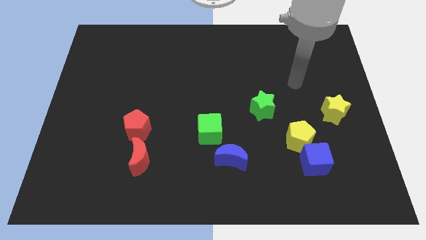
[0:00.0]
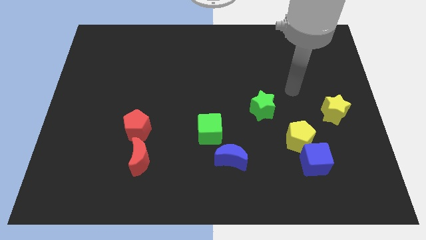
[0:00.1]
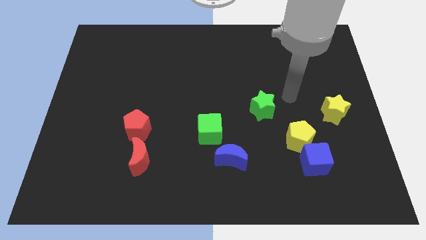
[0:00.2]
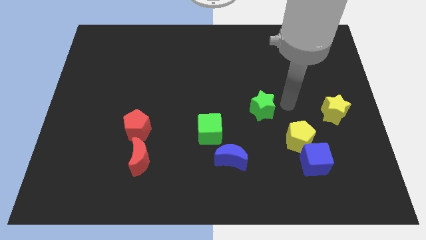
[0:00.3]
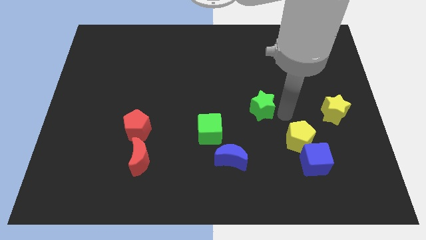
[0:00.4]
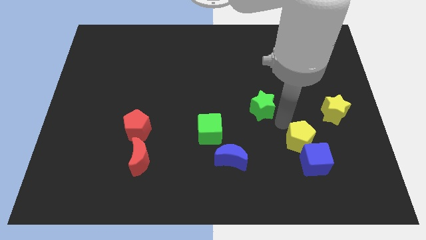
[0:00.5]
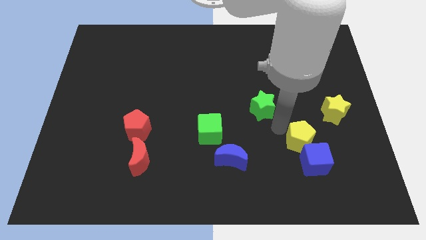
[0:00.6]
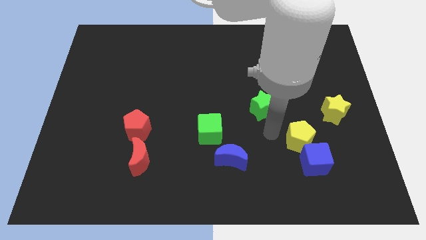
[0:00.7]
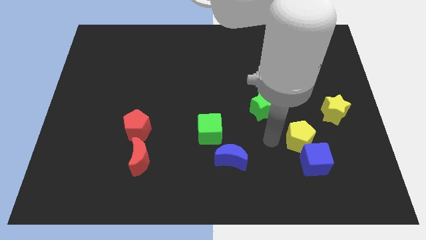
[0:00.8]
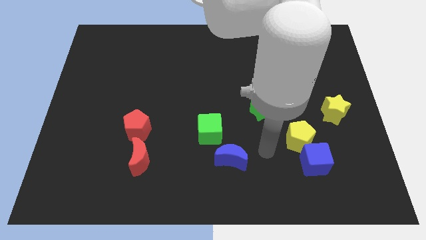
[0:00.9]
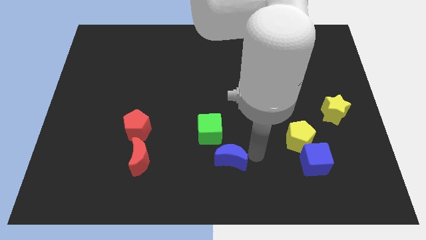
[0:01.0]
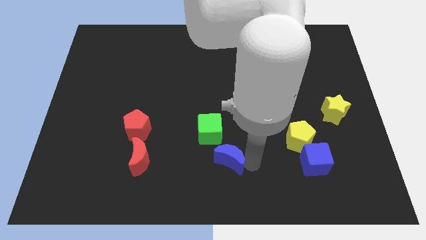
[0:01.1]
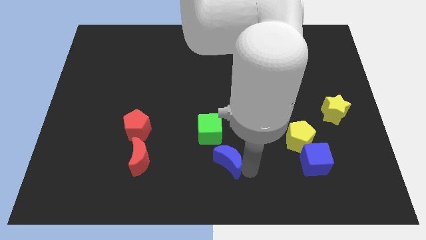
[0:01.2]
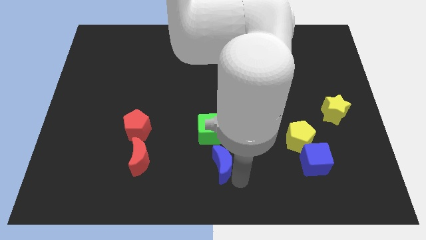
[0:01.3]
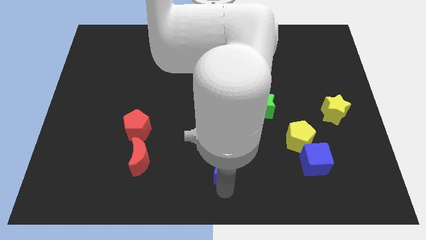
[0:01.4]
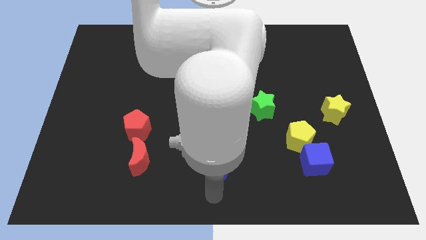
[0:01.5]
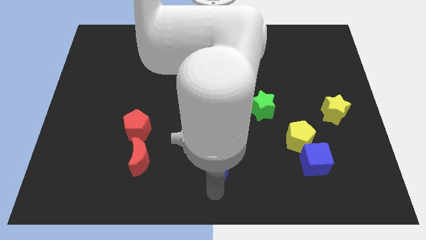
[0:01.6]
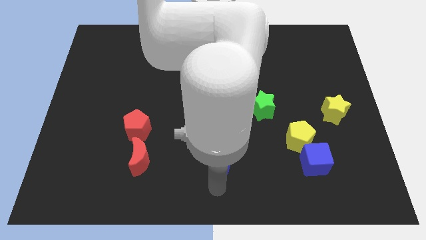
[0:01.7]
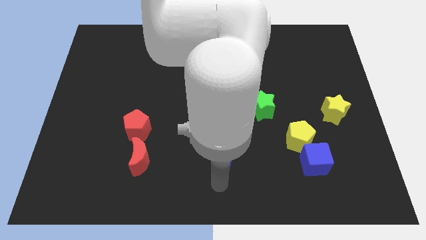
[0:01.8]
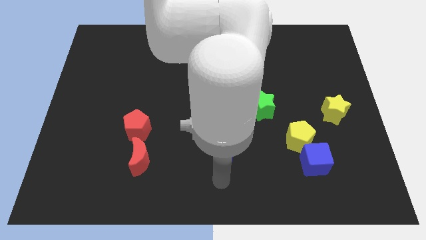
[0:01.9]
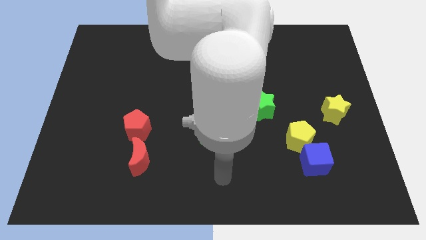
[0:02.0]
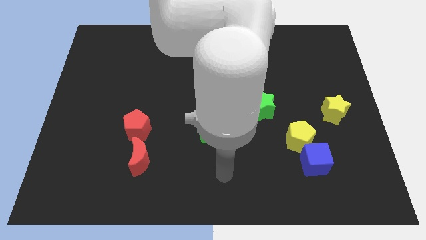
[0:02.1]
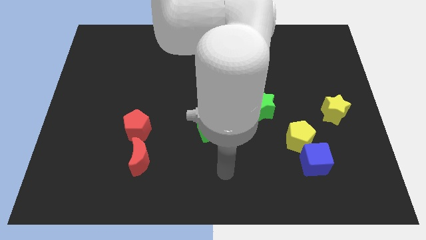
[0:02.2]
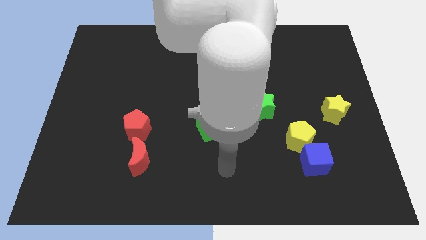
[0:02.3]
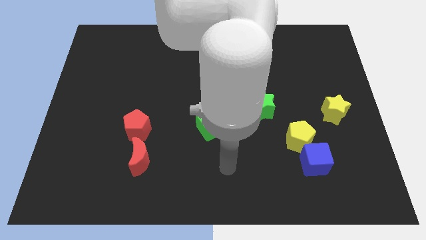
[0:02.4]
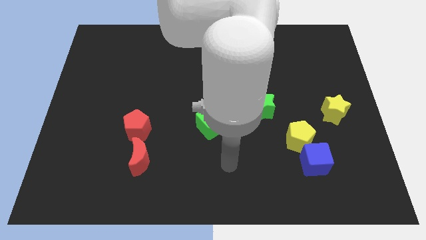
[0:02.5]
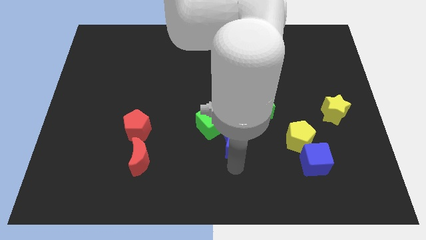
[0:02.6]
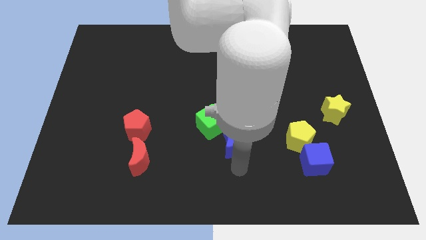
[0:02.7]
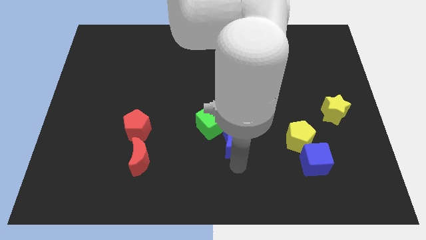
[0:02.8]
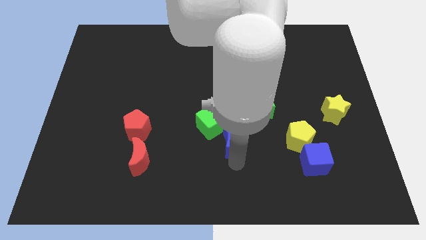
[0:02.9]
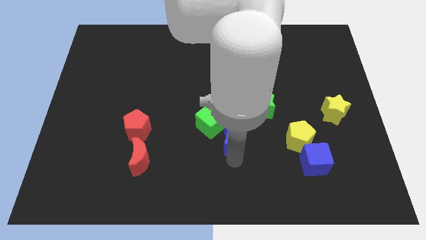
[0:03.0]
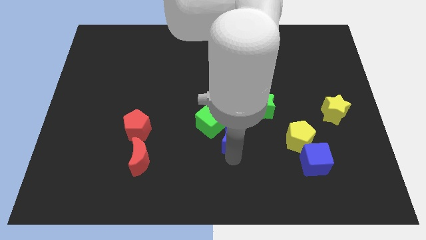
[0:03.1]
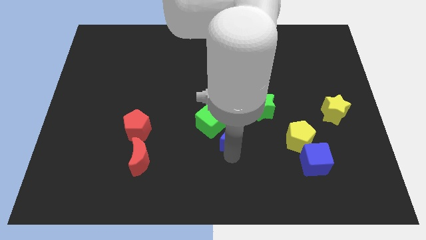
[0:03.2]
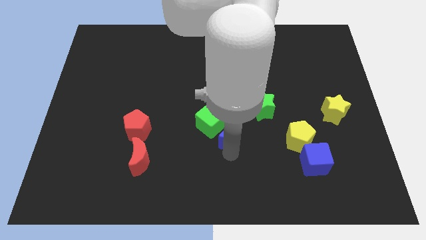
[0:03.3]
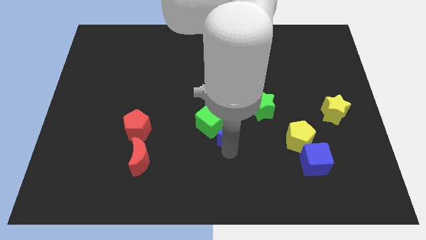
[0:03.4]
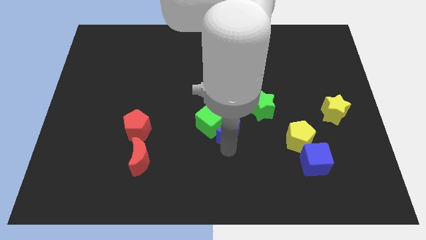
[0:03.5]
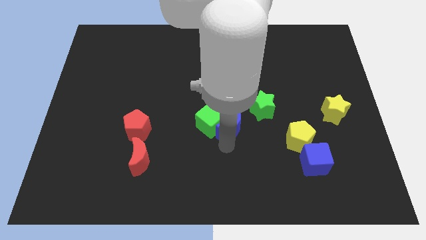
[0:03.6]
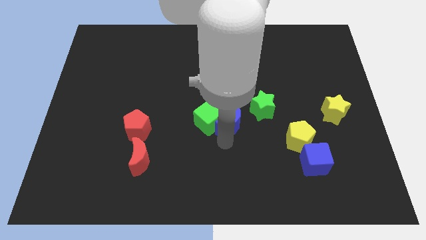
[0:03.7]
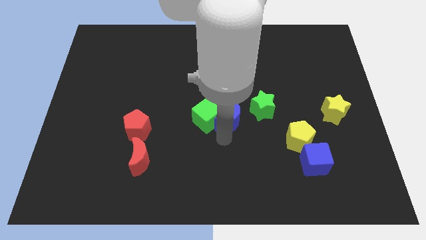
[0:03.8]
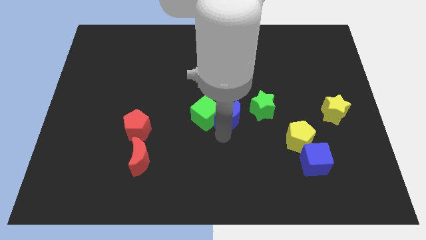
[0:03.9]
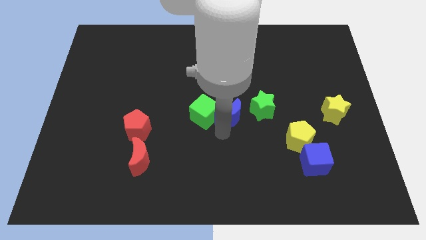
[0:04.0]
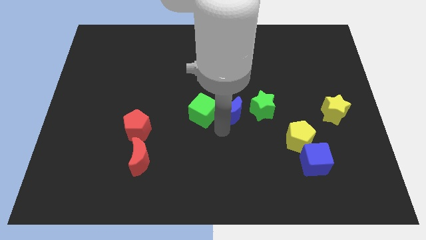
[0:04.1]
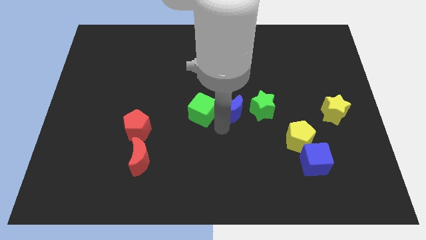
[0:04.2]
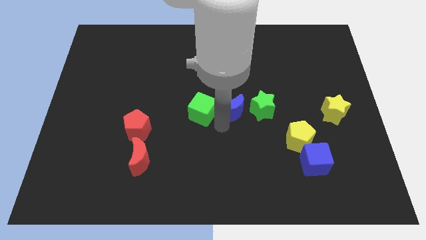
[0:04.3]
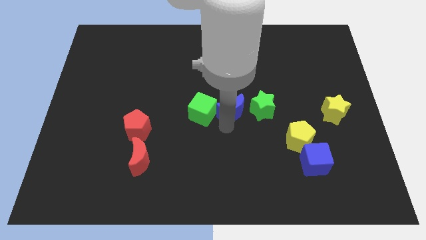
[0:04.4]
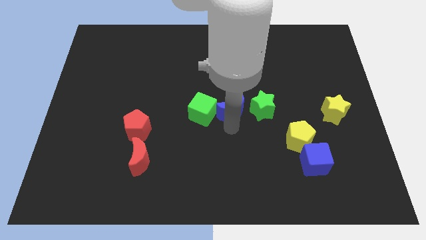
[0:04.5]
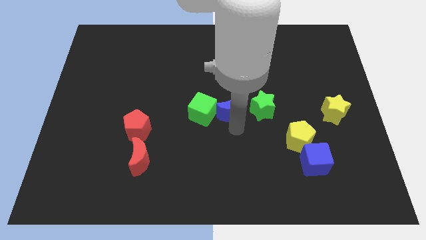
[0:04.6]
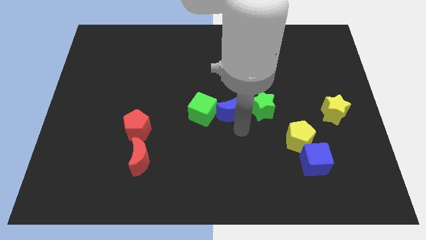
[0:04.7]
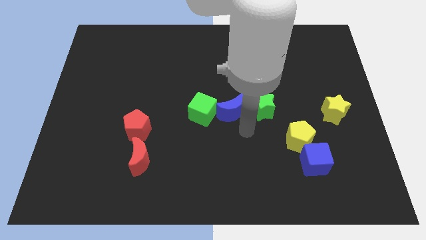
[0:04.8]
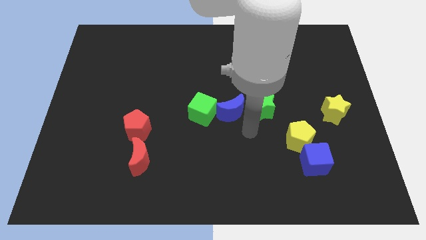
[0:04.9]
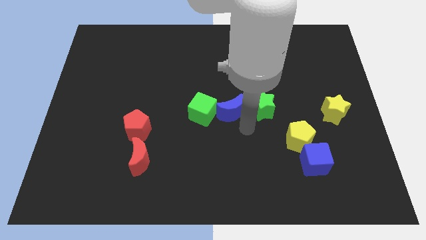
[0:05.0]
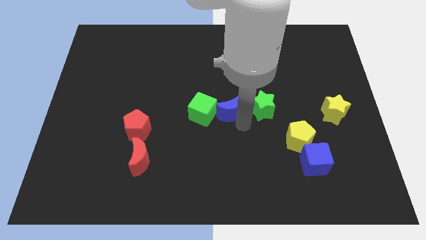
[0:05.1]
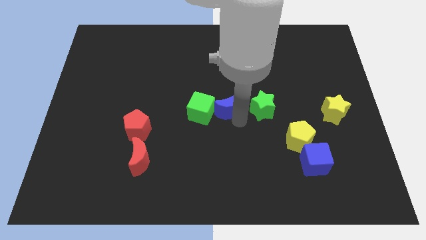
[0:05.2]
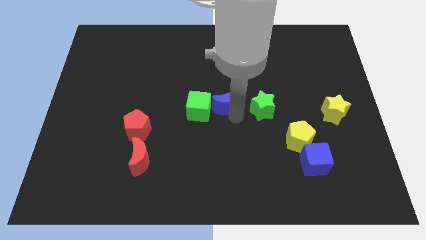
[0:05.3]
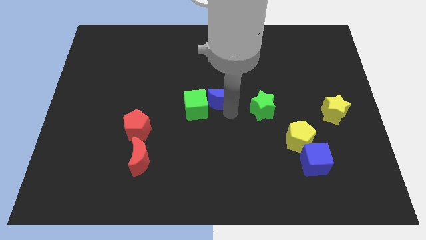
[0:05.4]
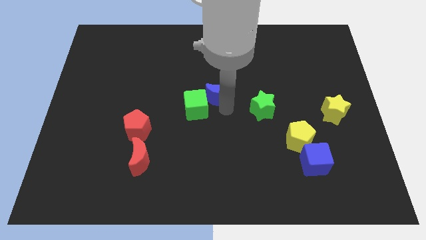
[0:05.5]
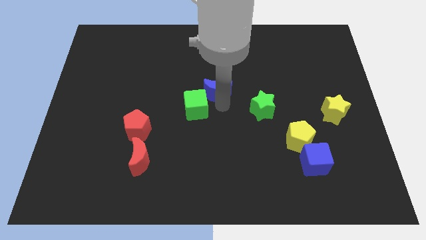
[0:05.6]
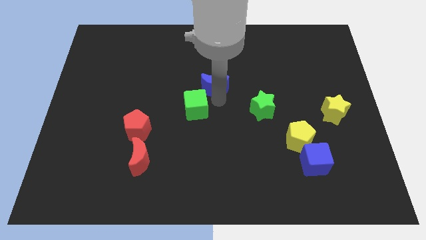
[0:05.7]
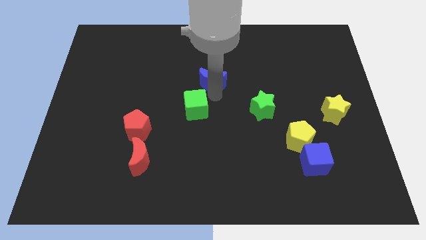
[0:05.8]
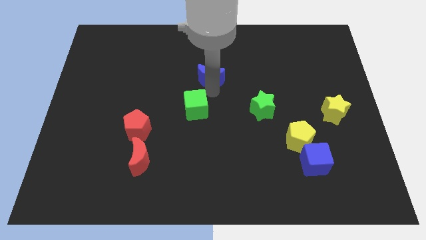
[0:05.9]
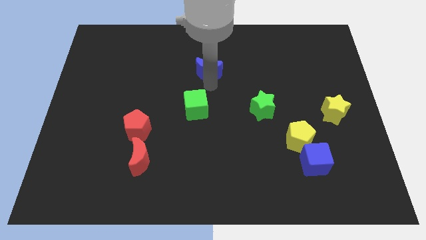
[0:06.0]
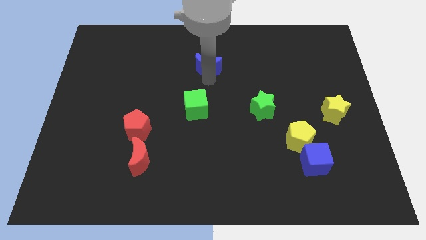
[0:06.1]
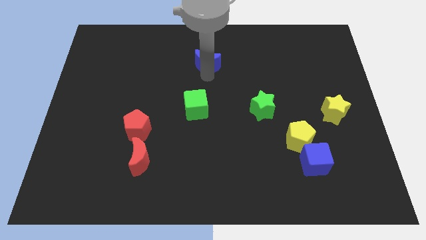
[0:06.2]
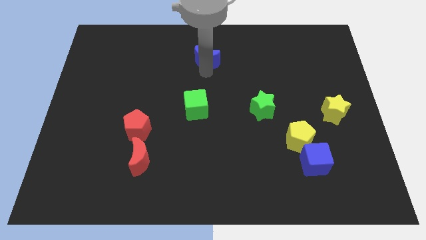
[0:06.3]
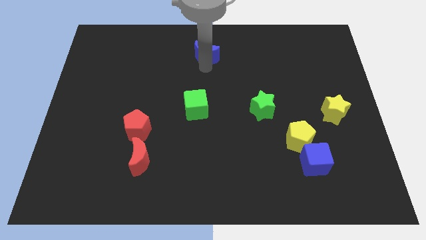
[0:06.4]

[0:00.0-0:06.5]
move the blue moon to the towards your base
